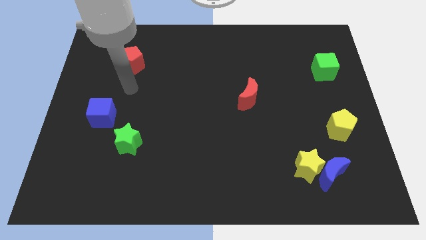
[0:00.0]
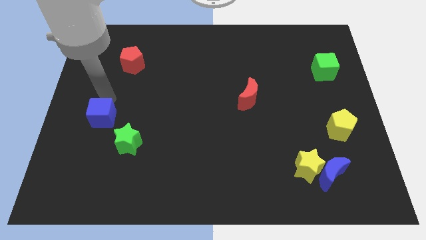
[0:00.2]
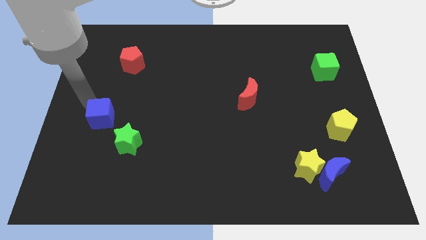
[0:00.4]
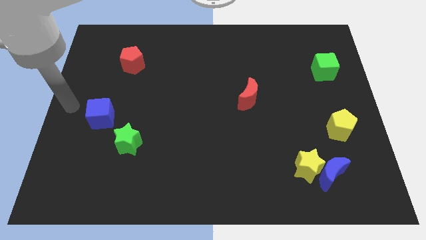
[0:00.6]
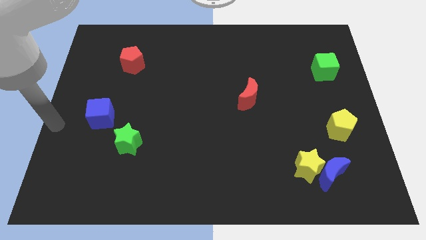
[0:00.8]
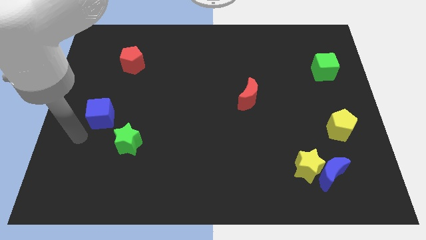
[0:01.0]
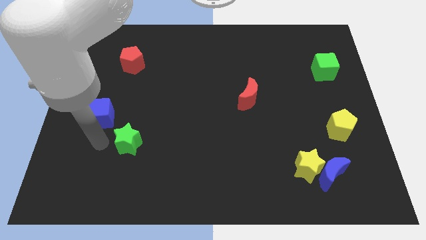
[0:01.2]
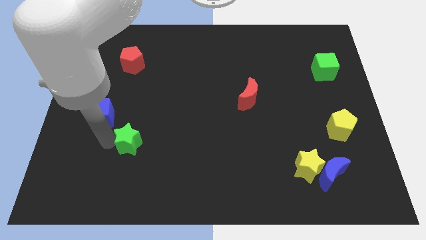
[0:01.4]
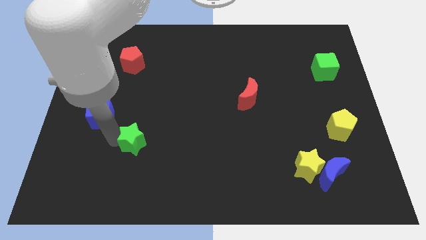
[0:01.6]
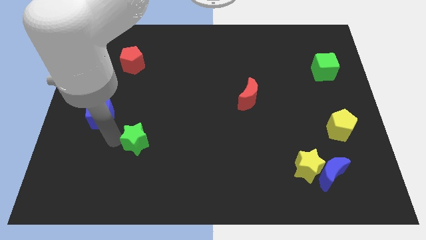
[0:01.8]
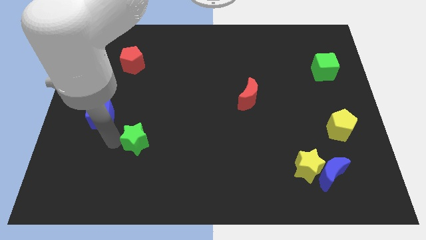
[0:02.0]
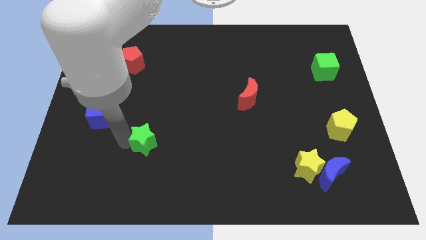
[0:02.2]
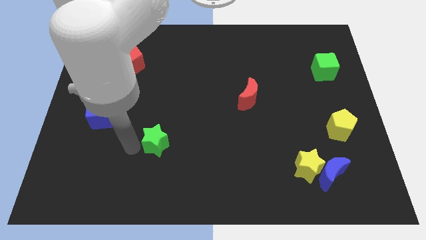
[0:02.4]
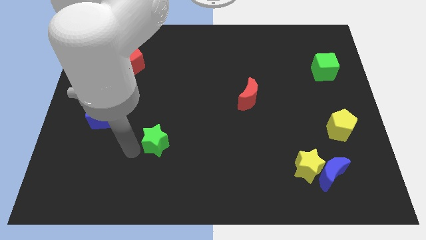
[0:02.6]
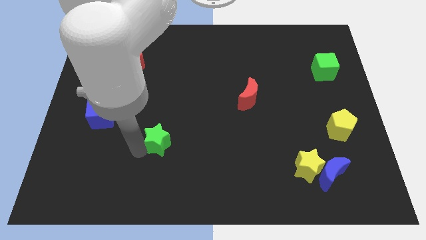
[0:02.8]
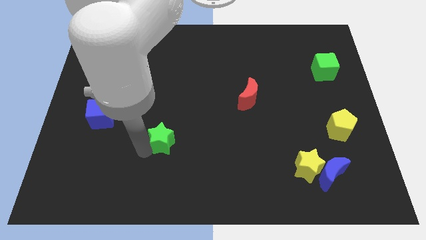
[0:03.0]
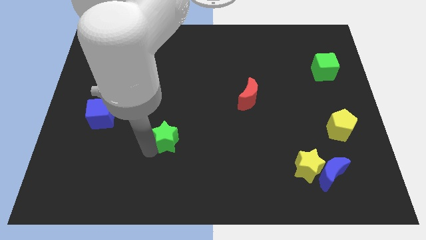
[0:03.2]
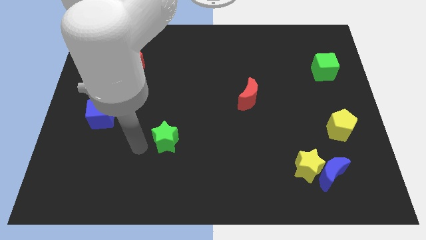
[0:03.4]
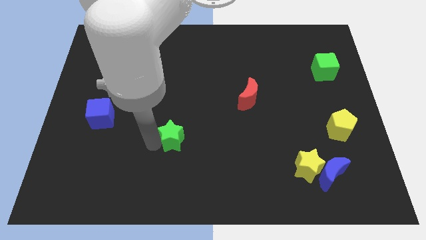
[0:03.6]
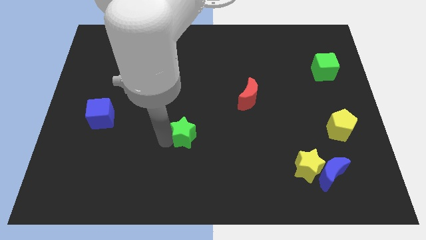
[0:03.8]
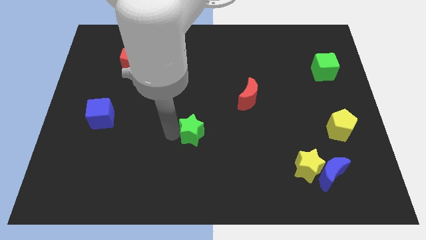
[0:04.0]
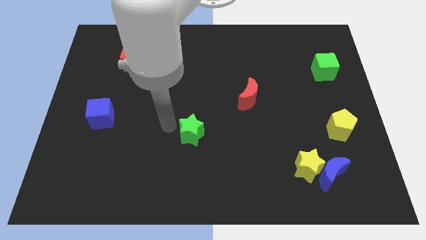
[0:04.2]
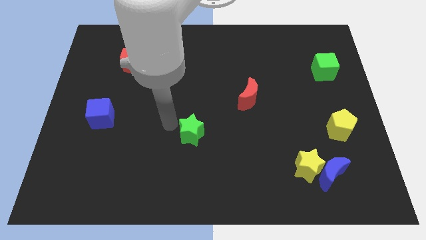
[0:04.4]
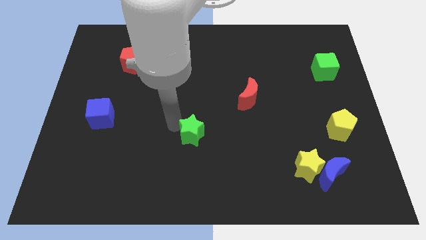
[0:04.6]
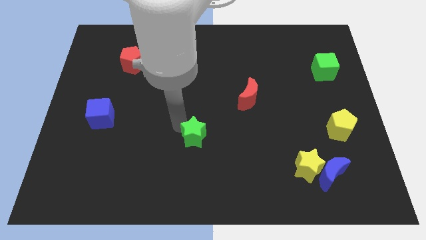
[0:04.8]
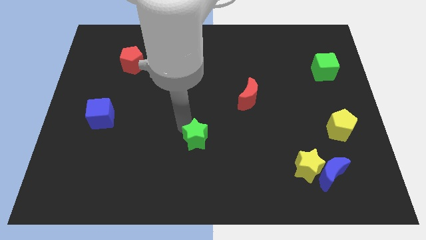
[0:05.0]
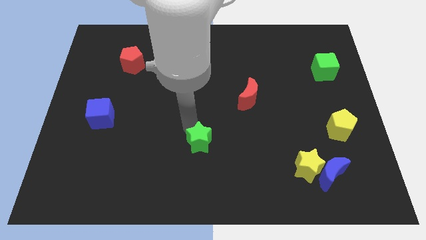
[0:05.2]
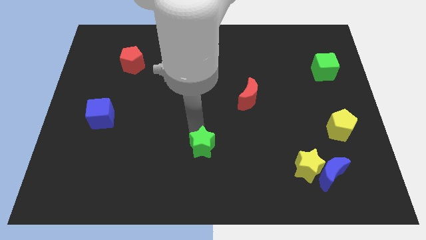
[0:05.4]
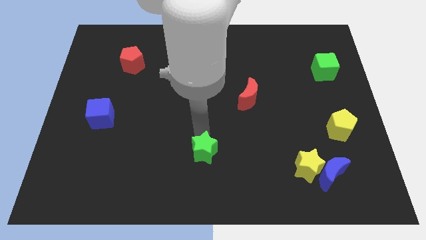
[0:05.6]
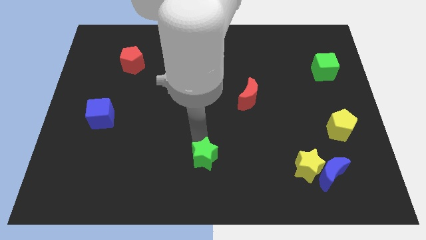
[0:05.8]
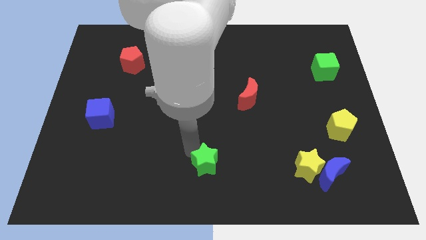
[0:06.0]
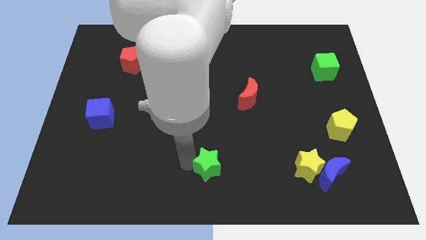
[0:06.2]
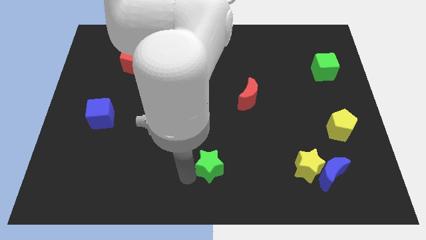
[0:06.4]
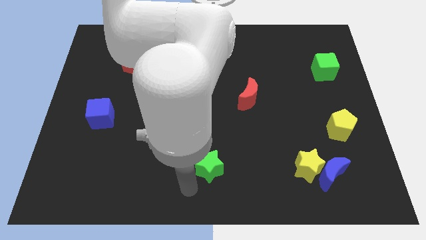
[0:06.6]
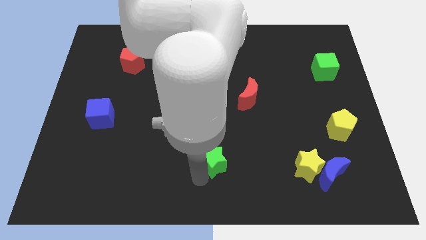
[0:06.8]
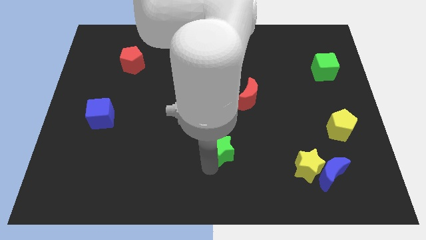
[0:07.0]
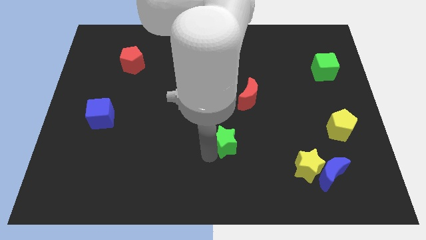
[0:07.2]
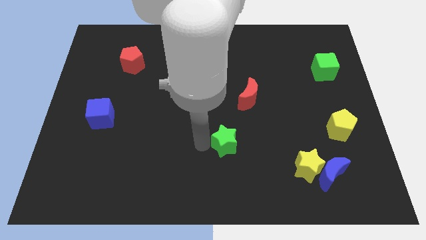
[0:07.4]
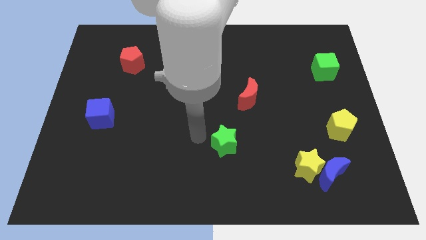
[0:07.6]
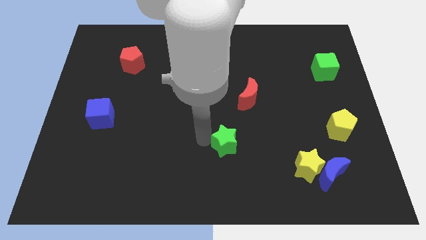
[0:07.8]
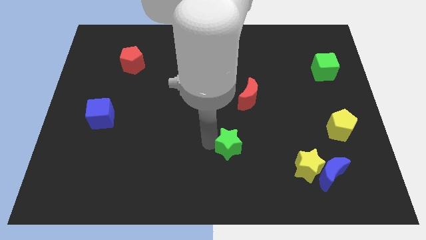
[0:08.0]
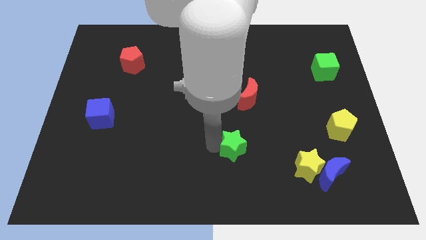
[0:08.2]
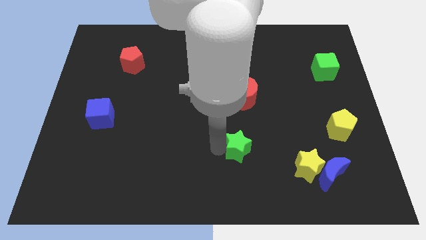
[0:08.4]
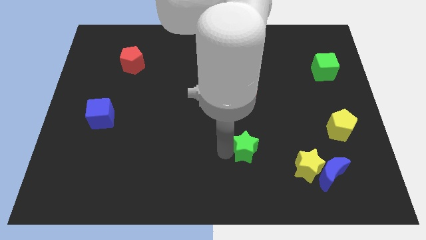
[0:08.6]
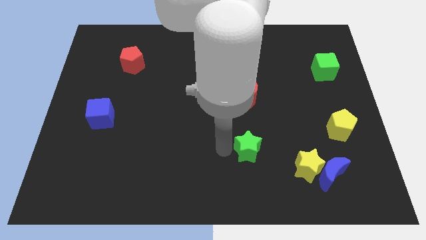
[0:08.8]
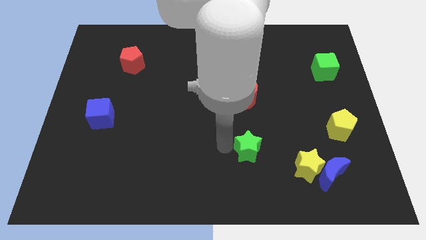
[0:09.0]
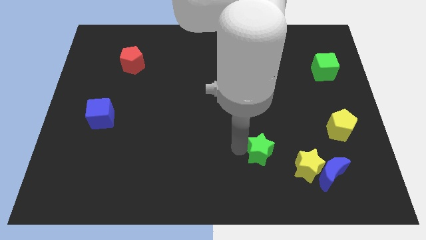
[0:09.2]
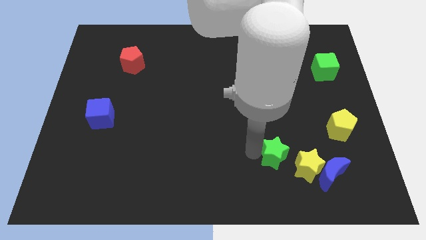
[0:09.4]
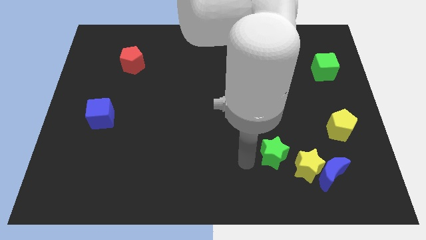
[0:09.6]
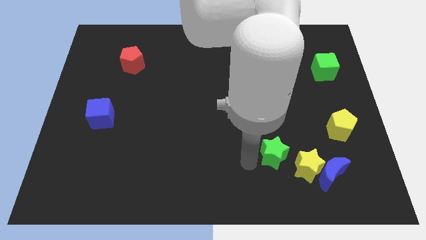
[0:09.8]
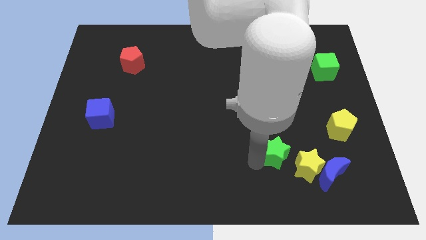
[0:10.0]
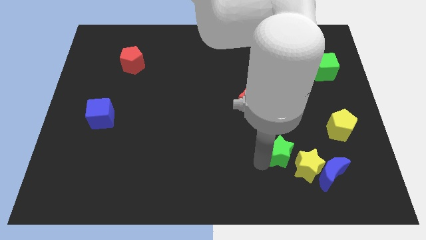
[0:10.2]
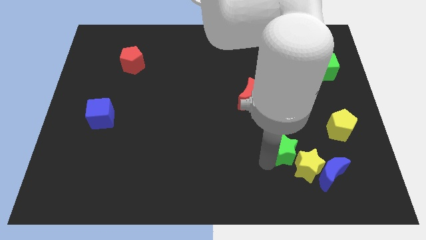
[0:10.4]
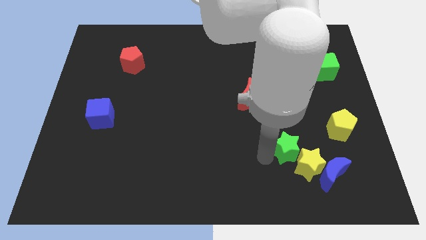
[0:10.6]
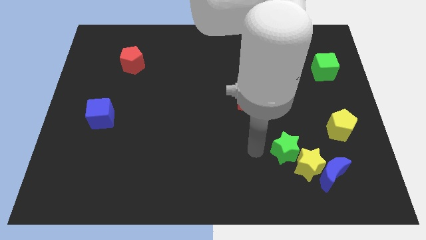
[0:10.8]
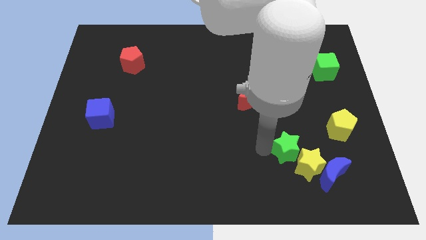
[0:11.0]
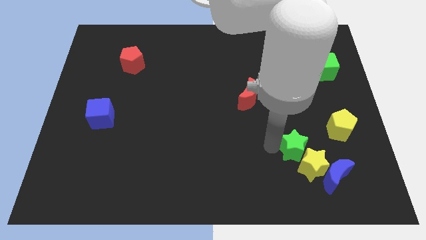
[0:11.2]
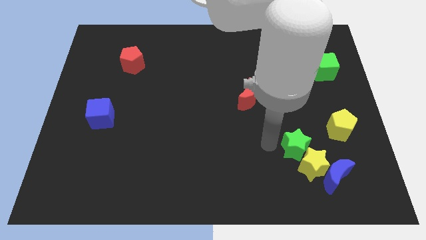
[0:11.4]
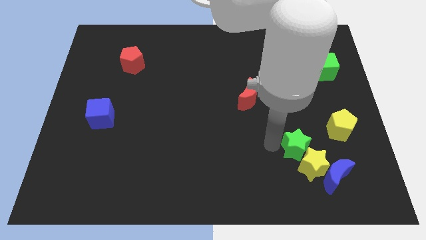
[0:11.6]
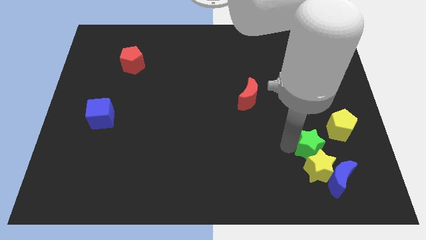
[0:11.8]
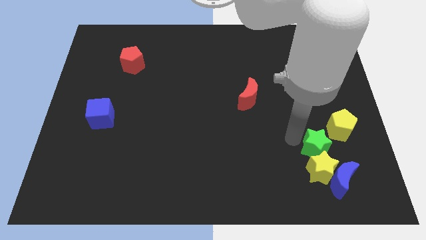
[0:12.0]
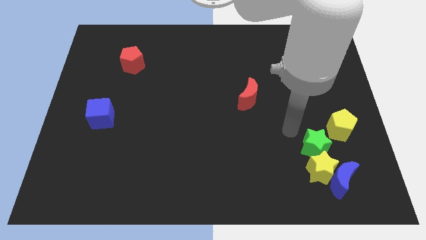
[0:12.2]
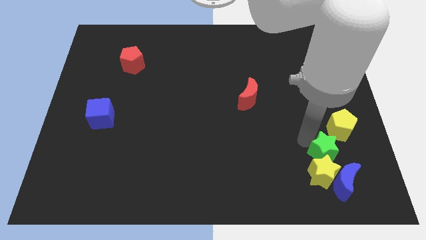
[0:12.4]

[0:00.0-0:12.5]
push the green star to the bottom side of the yellow pentagon

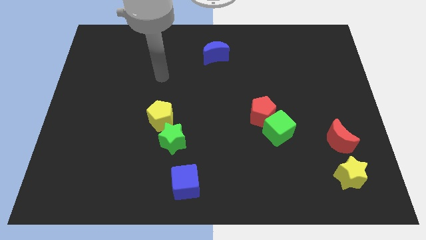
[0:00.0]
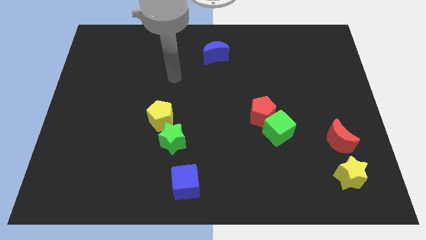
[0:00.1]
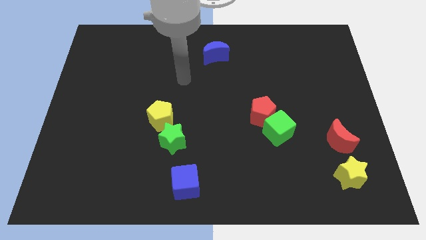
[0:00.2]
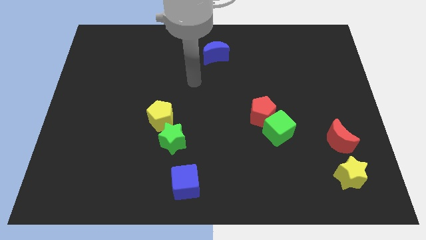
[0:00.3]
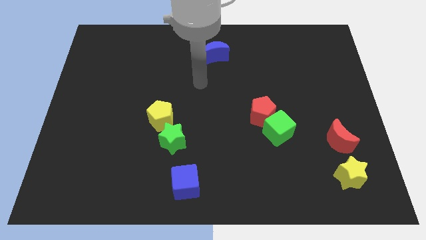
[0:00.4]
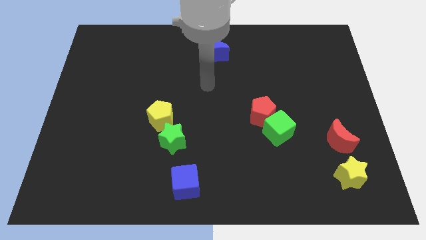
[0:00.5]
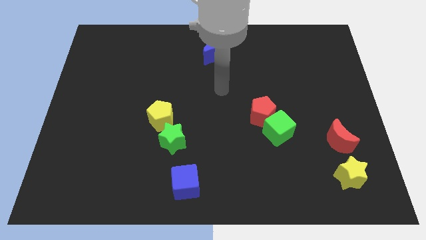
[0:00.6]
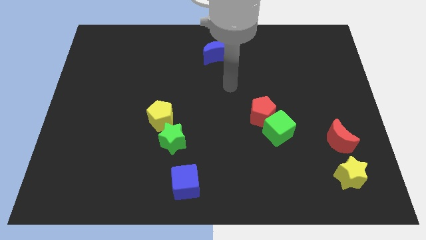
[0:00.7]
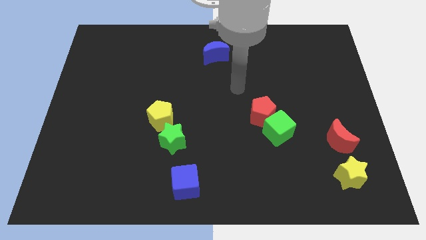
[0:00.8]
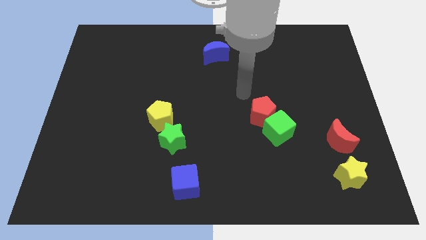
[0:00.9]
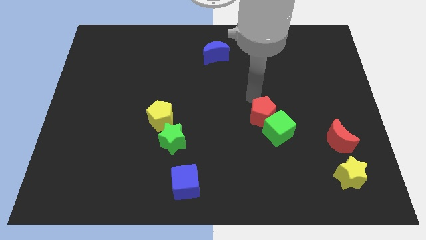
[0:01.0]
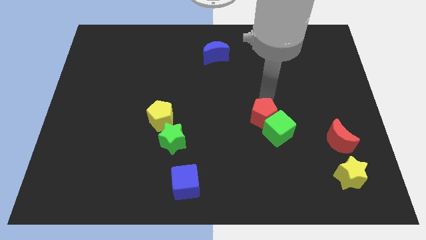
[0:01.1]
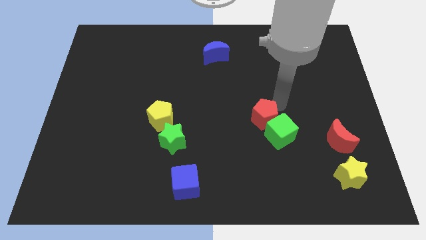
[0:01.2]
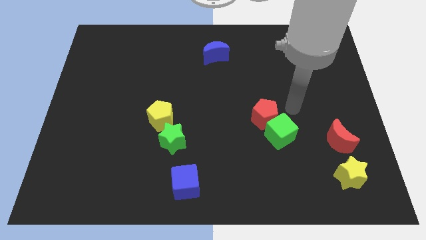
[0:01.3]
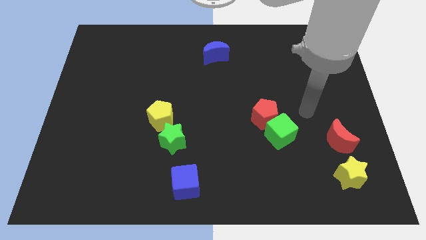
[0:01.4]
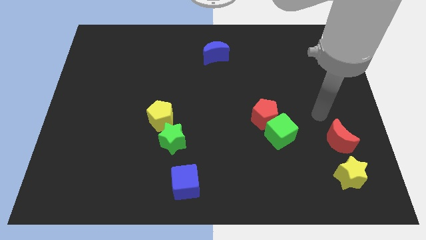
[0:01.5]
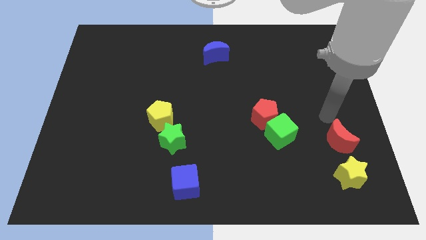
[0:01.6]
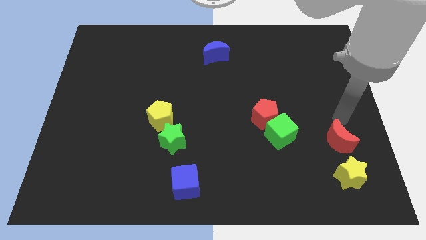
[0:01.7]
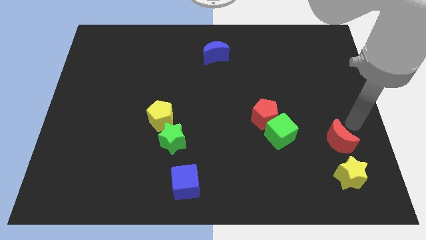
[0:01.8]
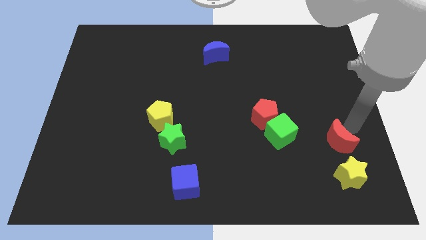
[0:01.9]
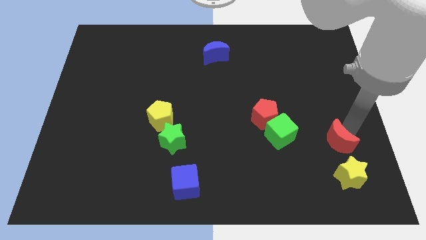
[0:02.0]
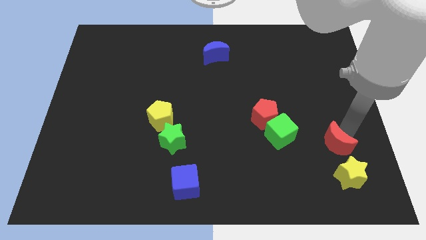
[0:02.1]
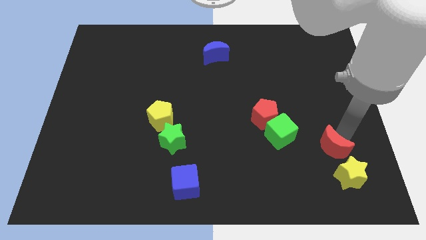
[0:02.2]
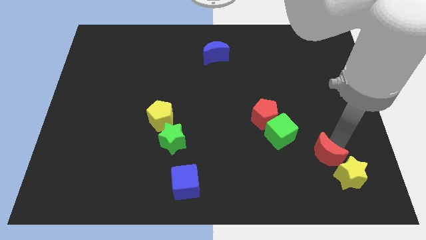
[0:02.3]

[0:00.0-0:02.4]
slide the red moon to the left side of the yellow star
